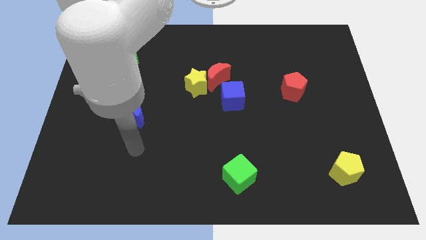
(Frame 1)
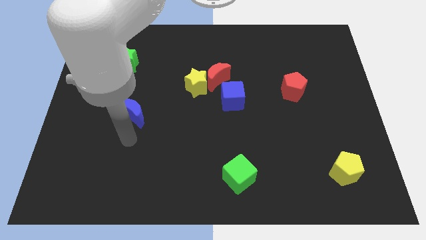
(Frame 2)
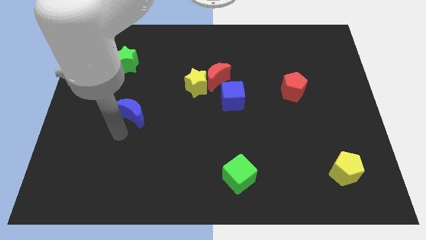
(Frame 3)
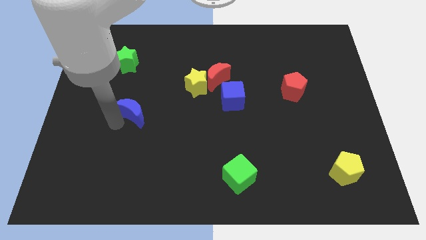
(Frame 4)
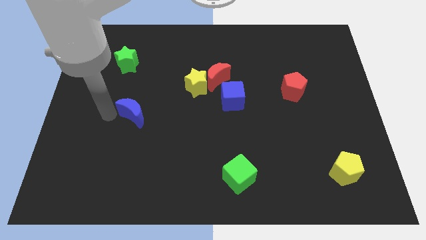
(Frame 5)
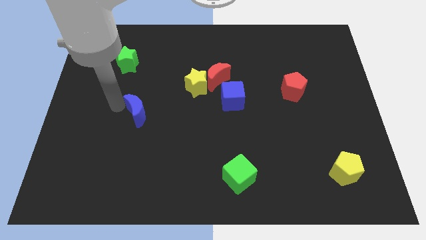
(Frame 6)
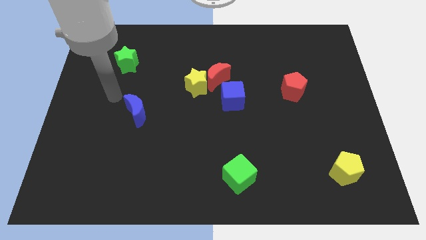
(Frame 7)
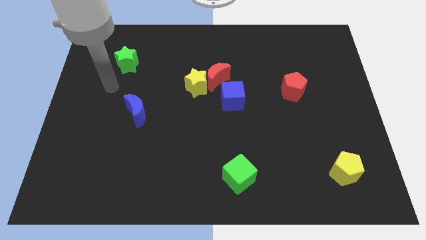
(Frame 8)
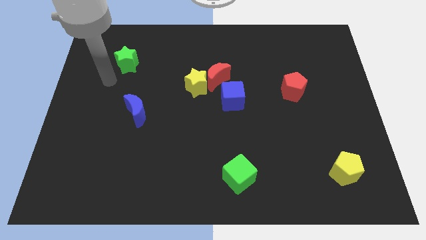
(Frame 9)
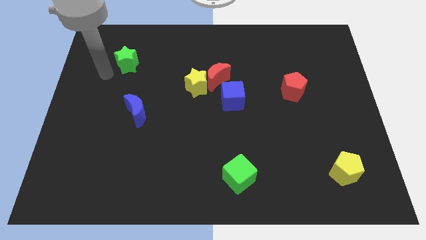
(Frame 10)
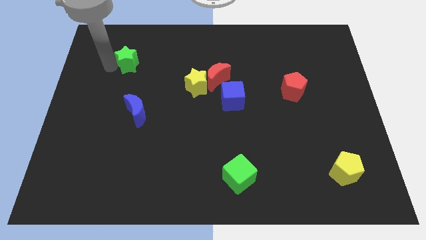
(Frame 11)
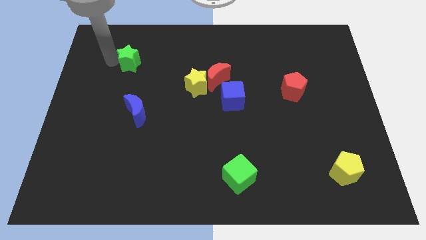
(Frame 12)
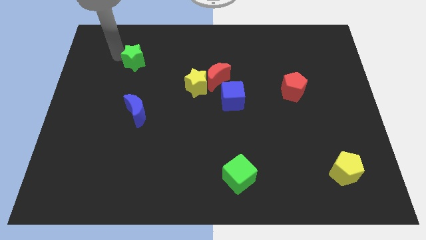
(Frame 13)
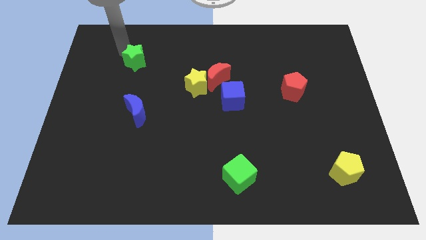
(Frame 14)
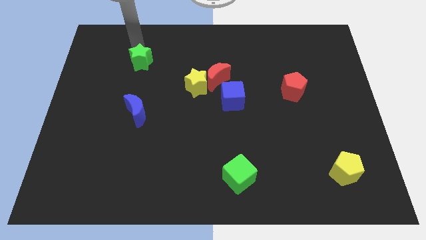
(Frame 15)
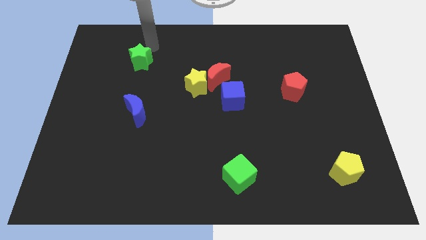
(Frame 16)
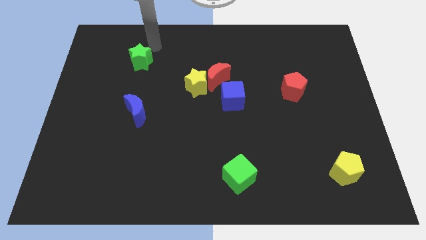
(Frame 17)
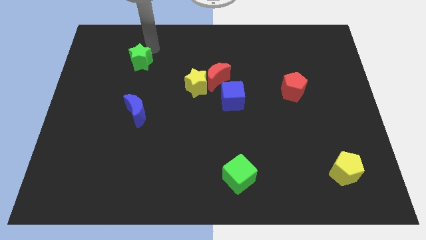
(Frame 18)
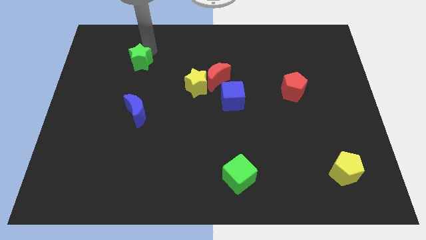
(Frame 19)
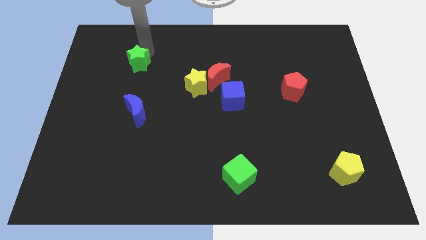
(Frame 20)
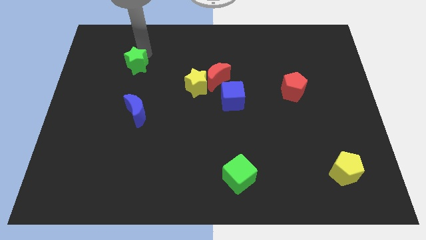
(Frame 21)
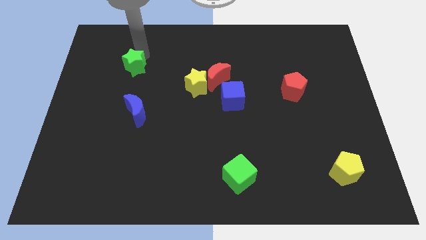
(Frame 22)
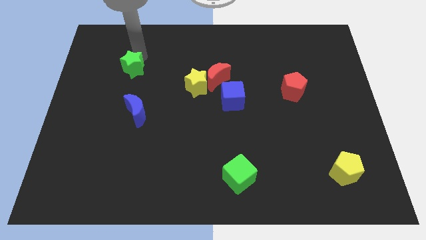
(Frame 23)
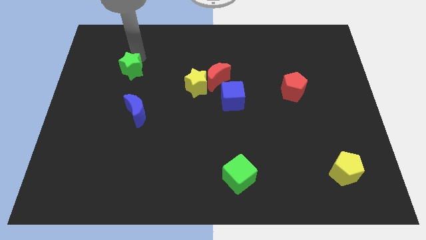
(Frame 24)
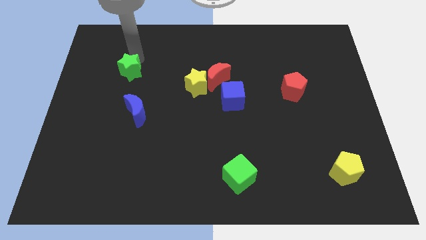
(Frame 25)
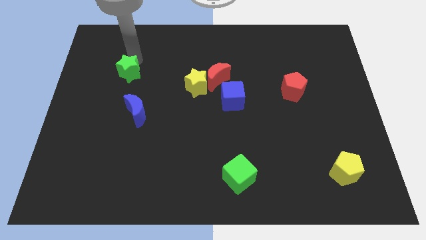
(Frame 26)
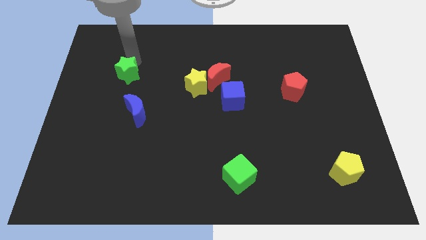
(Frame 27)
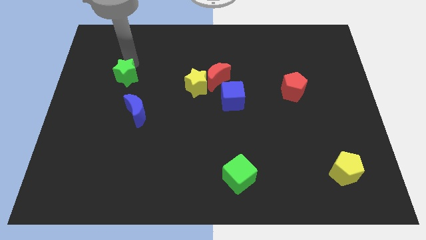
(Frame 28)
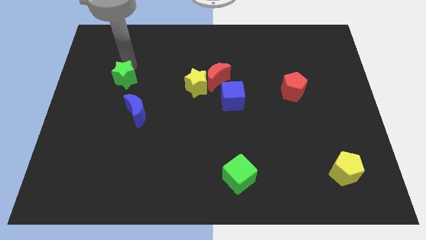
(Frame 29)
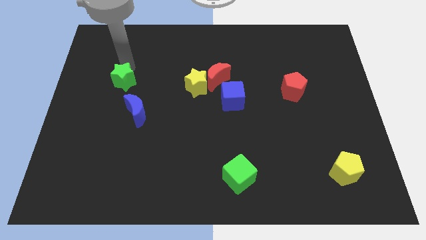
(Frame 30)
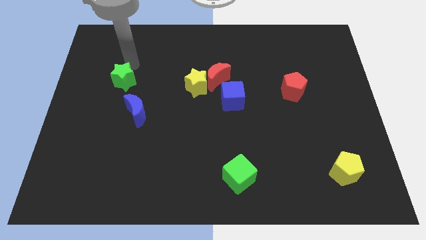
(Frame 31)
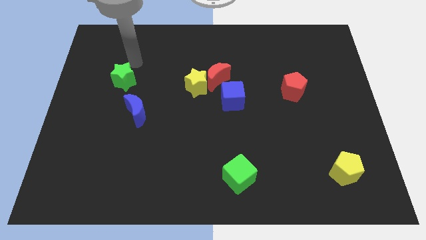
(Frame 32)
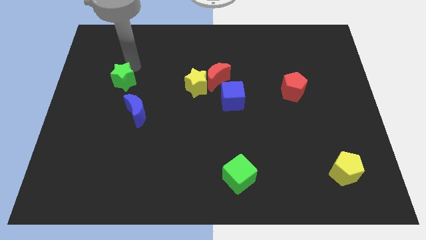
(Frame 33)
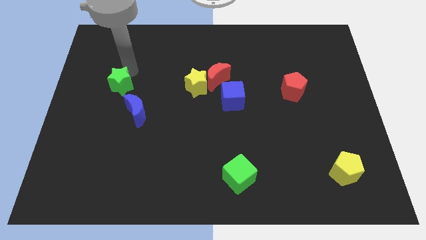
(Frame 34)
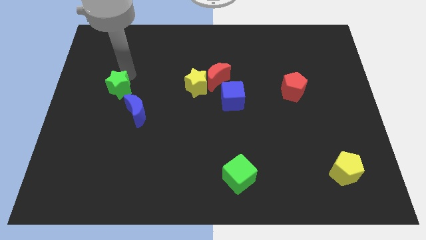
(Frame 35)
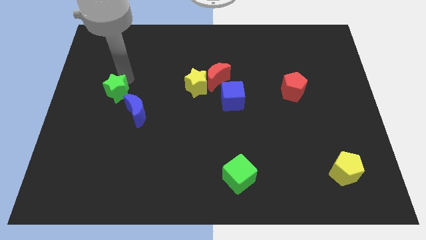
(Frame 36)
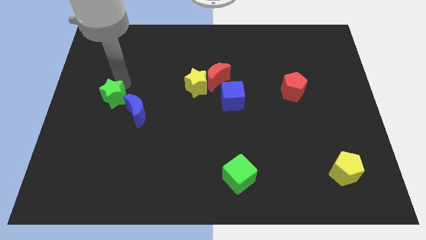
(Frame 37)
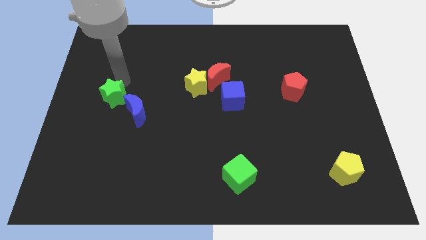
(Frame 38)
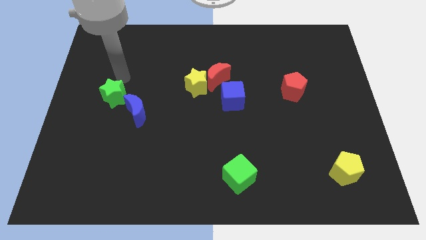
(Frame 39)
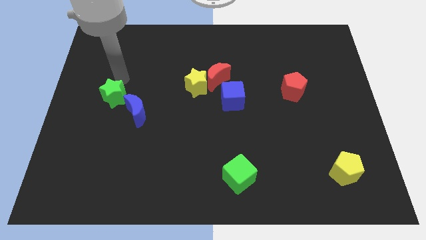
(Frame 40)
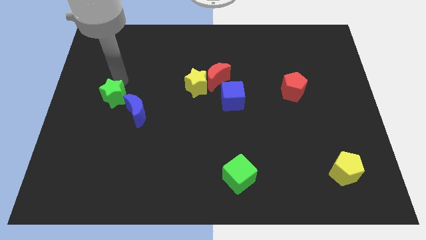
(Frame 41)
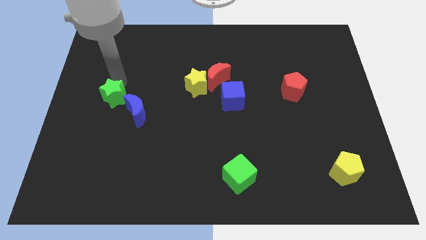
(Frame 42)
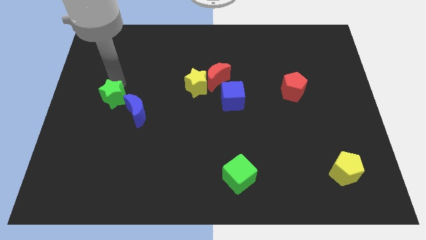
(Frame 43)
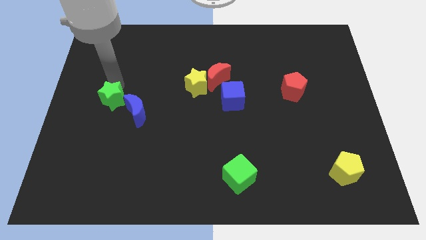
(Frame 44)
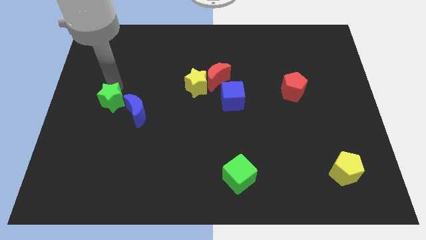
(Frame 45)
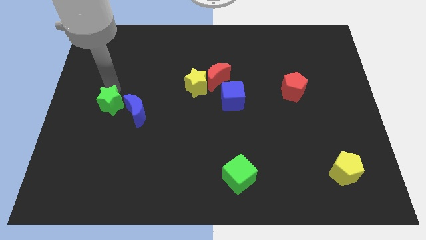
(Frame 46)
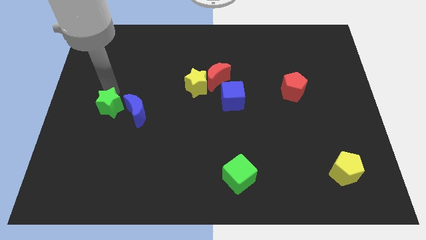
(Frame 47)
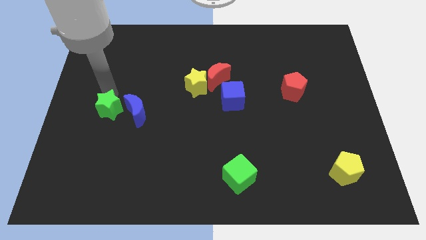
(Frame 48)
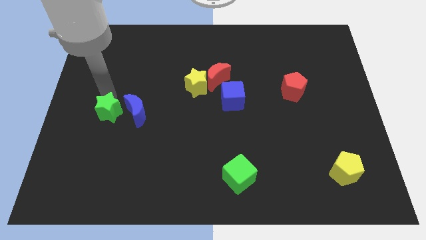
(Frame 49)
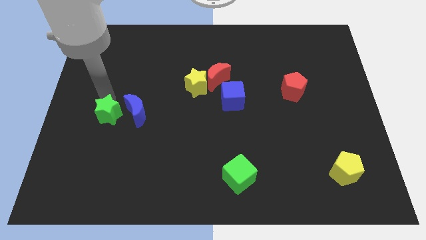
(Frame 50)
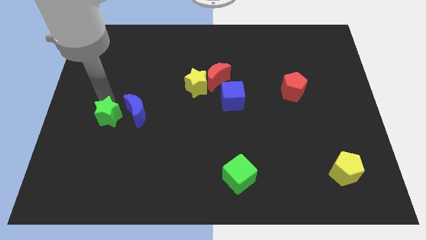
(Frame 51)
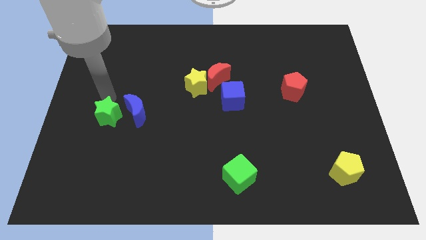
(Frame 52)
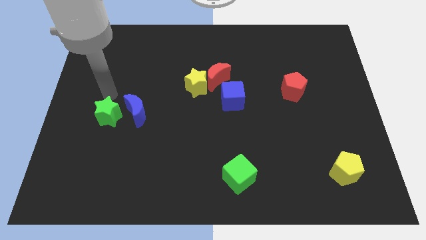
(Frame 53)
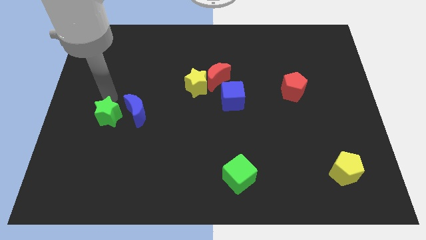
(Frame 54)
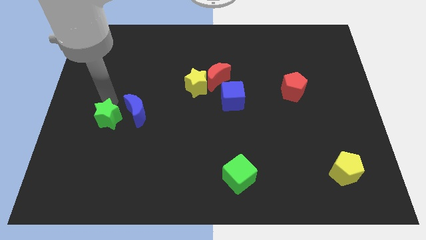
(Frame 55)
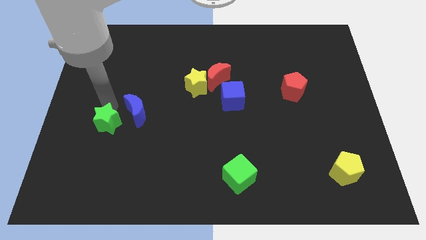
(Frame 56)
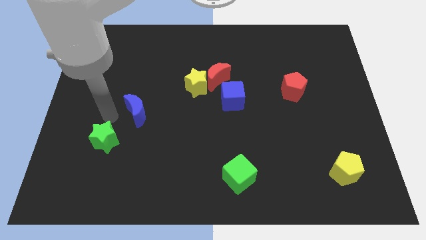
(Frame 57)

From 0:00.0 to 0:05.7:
push the green star down

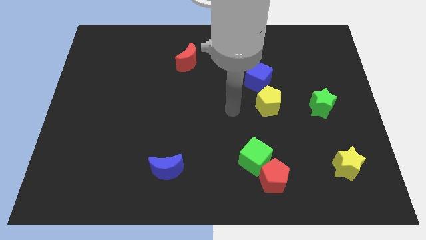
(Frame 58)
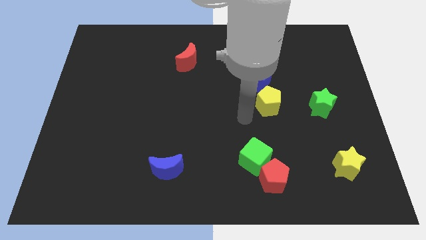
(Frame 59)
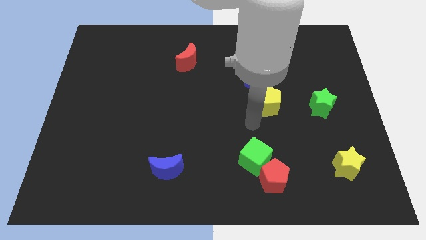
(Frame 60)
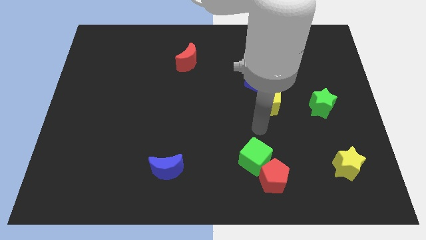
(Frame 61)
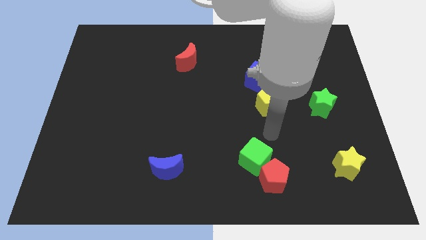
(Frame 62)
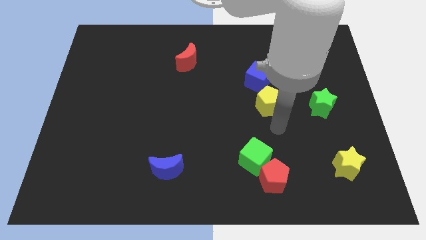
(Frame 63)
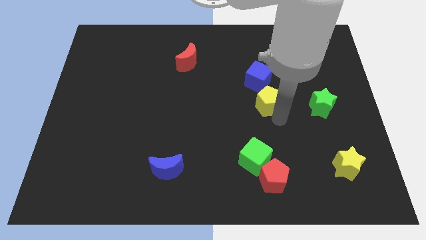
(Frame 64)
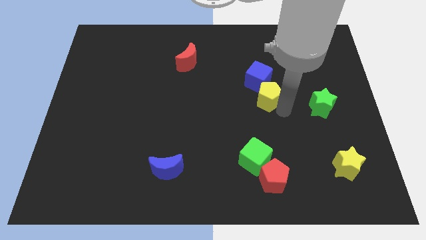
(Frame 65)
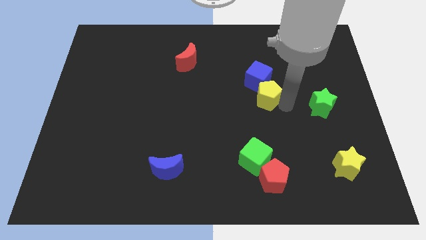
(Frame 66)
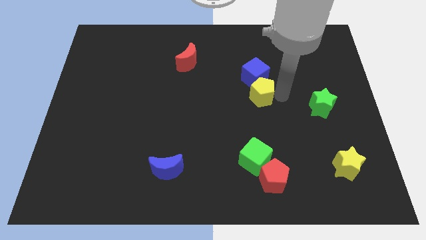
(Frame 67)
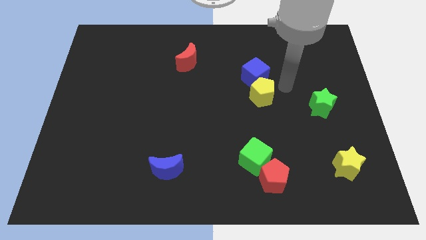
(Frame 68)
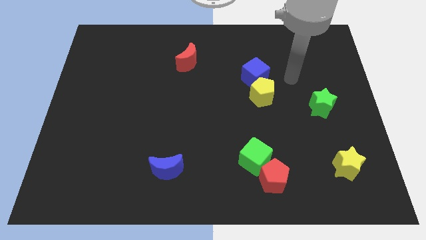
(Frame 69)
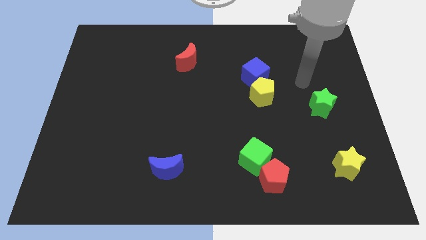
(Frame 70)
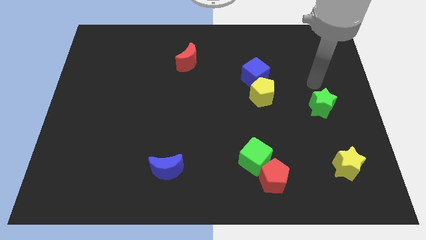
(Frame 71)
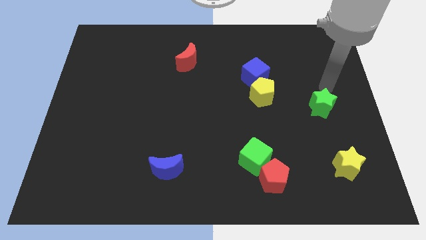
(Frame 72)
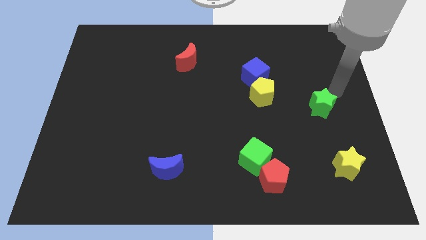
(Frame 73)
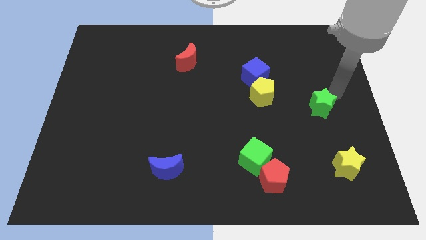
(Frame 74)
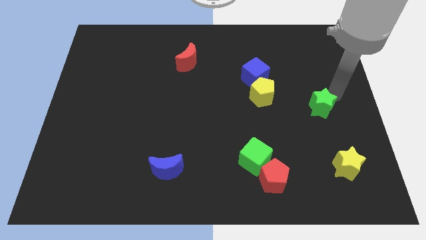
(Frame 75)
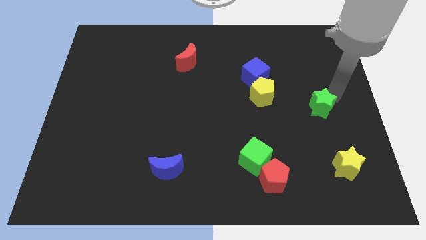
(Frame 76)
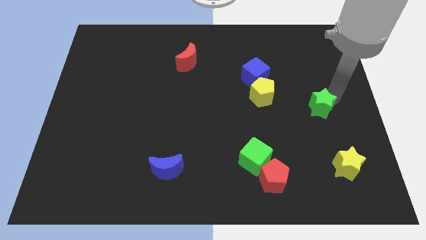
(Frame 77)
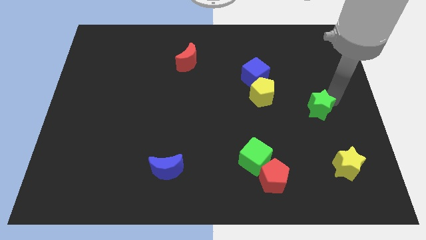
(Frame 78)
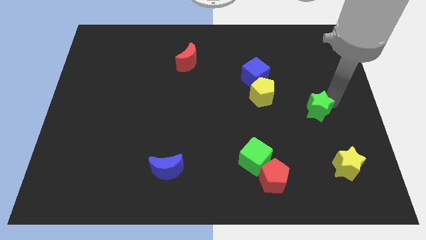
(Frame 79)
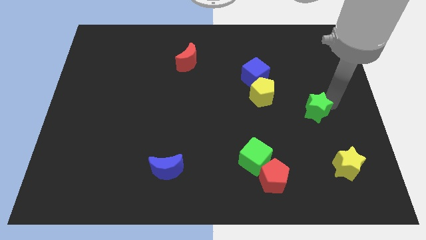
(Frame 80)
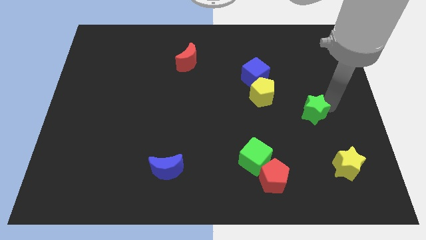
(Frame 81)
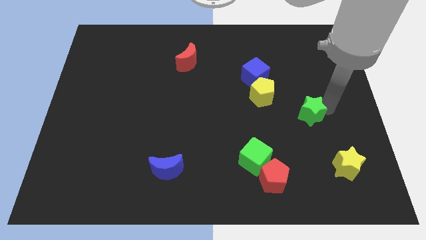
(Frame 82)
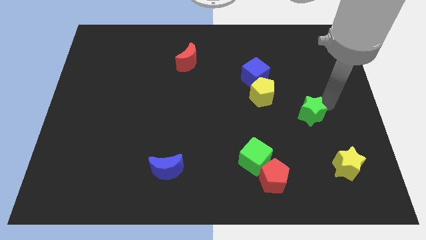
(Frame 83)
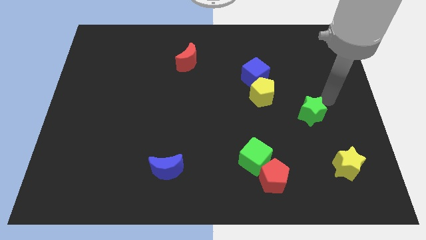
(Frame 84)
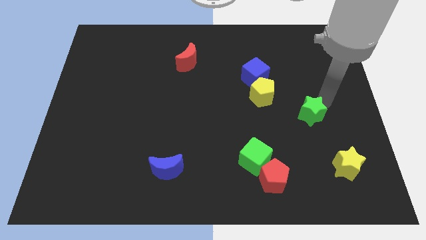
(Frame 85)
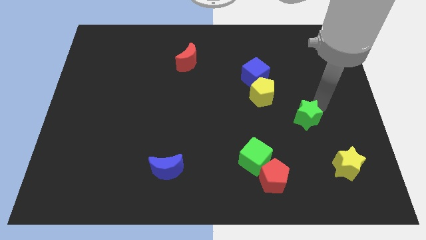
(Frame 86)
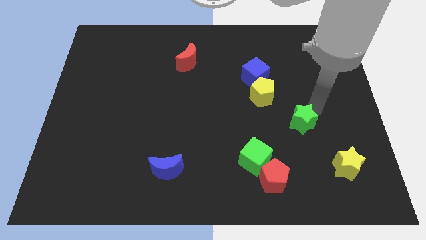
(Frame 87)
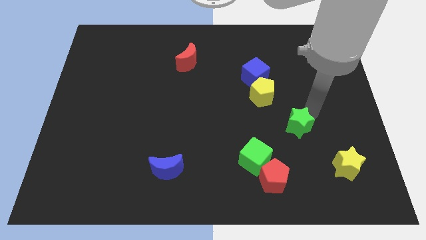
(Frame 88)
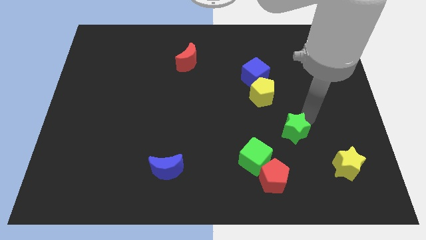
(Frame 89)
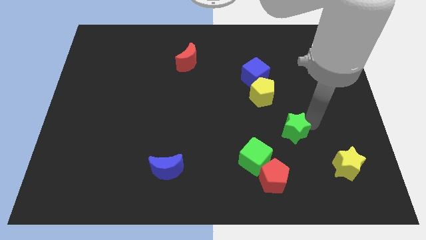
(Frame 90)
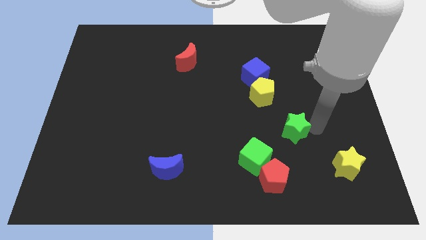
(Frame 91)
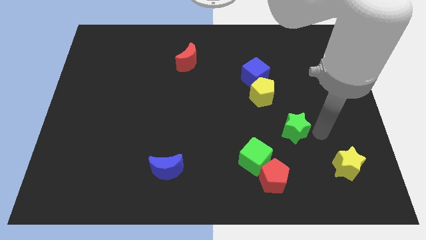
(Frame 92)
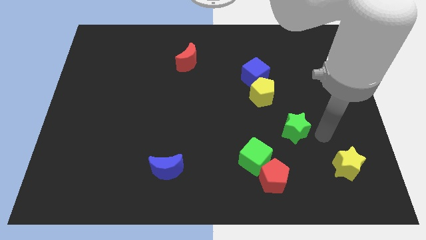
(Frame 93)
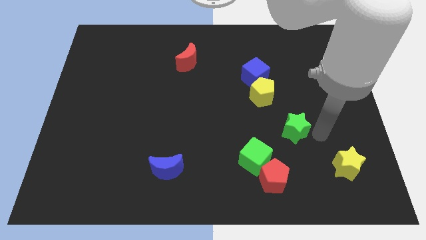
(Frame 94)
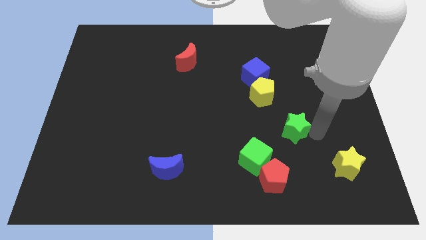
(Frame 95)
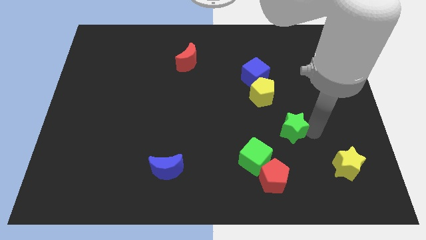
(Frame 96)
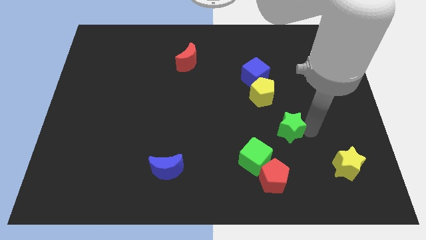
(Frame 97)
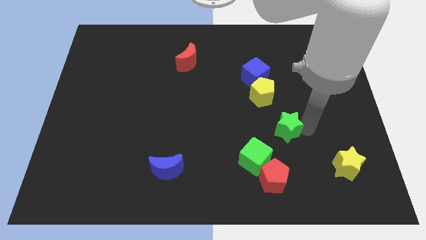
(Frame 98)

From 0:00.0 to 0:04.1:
move the green star left a little bit
